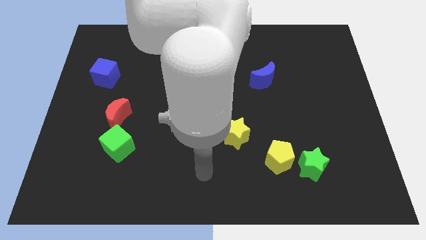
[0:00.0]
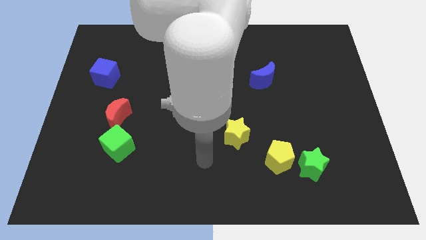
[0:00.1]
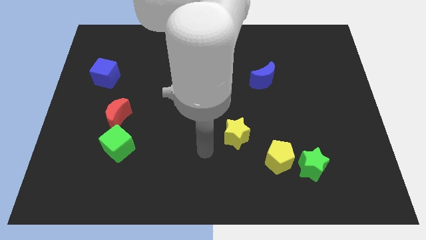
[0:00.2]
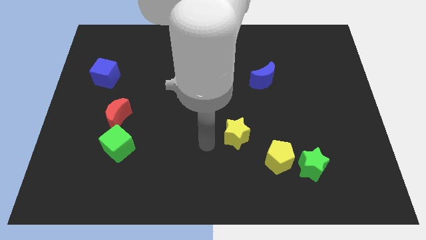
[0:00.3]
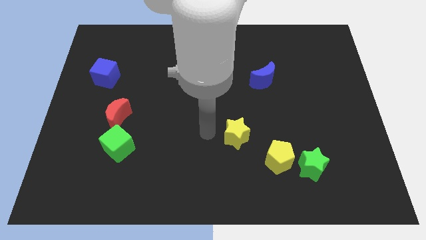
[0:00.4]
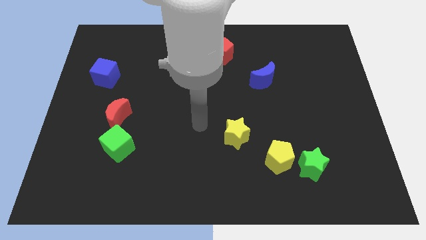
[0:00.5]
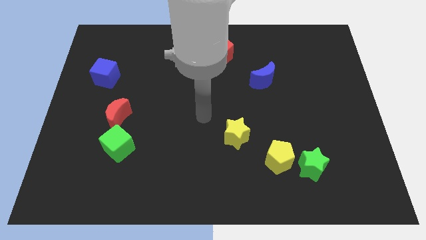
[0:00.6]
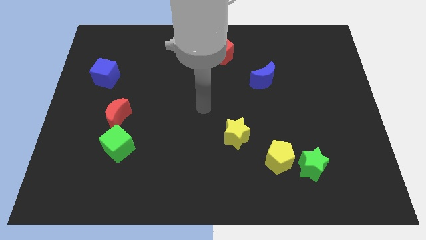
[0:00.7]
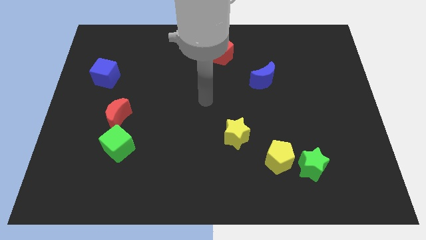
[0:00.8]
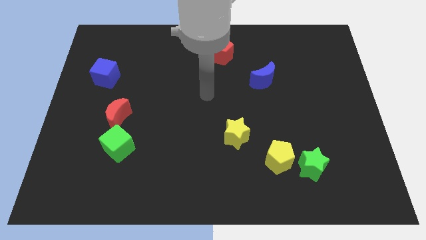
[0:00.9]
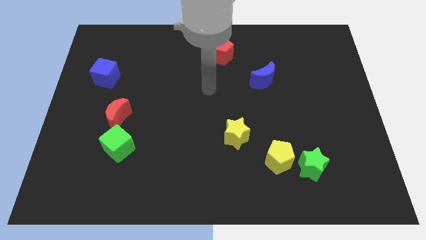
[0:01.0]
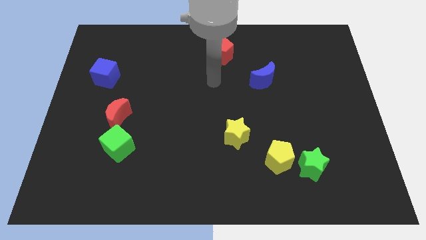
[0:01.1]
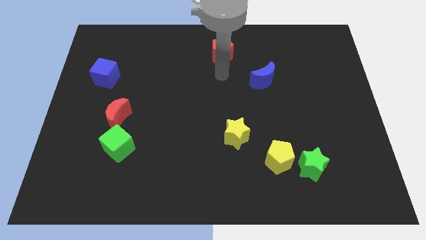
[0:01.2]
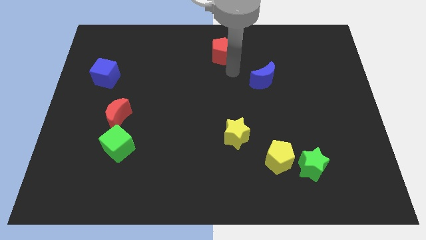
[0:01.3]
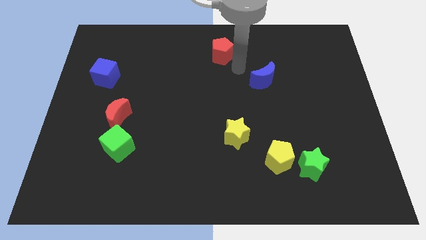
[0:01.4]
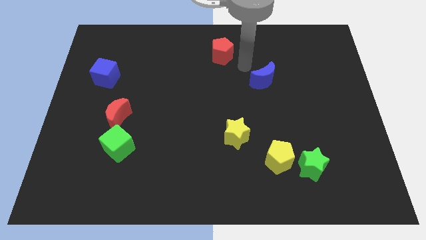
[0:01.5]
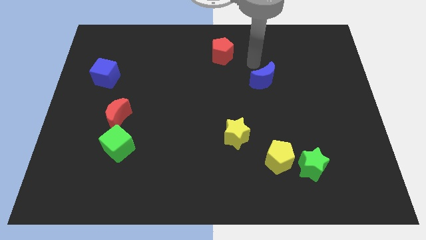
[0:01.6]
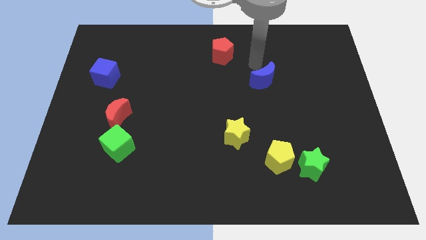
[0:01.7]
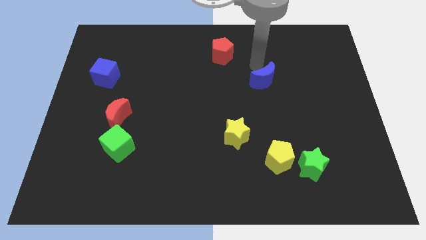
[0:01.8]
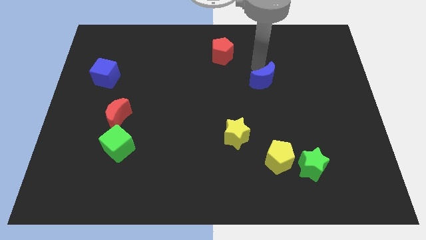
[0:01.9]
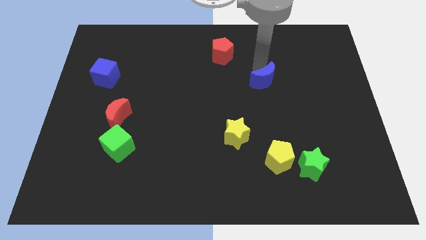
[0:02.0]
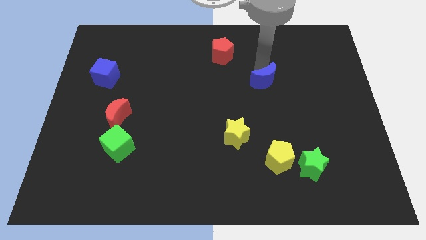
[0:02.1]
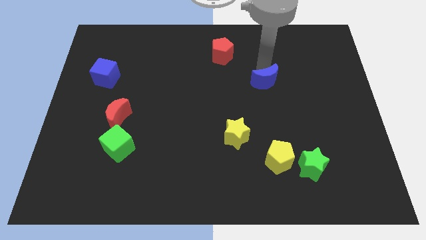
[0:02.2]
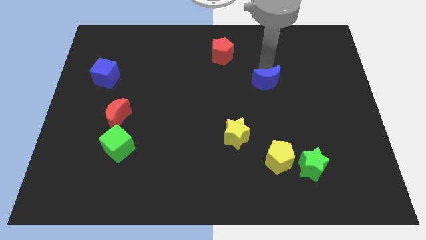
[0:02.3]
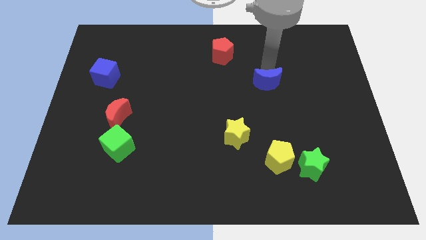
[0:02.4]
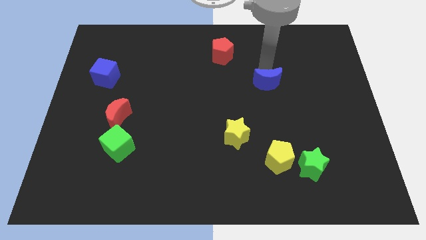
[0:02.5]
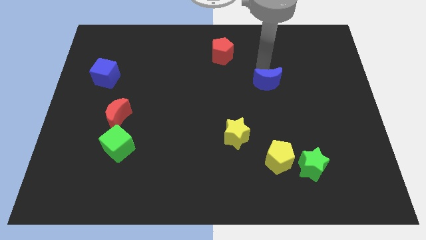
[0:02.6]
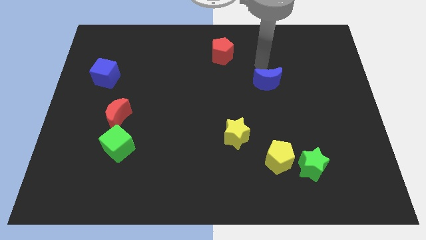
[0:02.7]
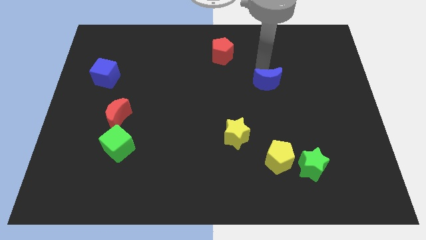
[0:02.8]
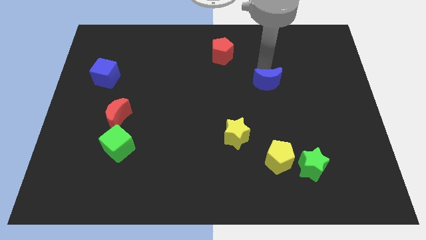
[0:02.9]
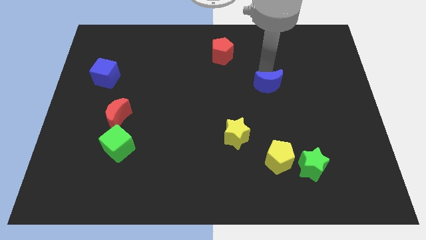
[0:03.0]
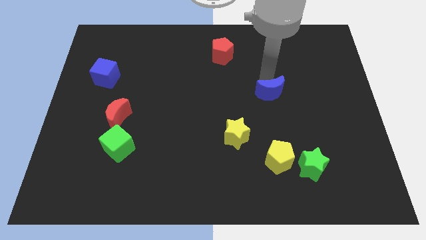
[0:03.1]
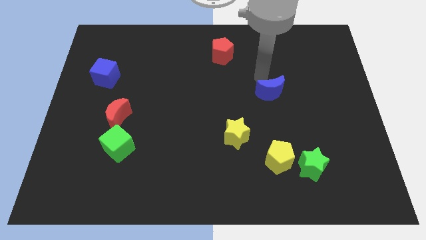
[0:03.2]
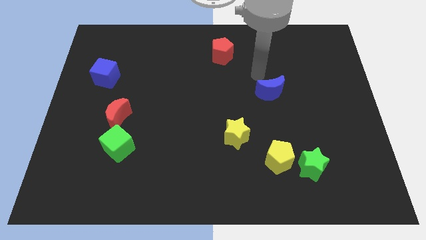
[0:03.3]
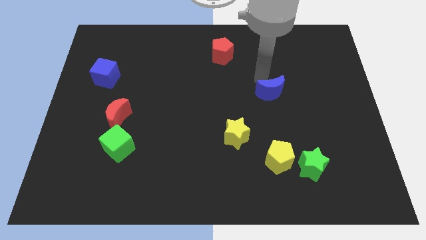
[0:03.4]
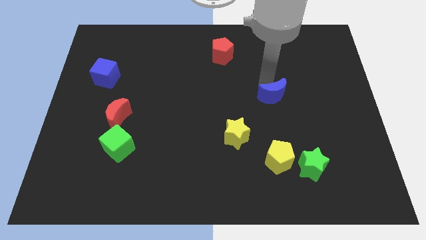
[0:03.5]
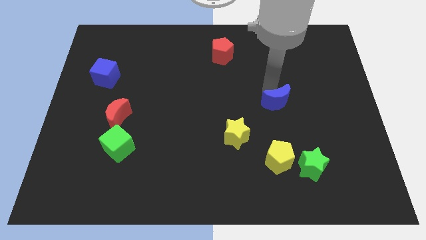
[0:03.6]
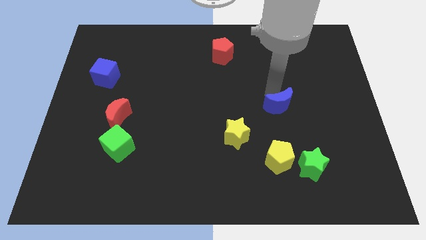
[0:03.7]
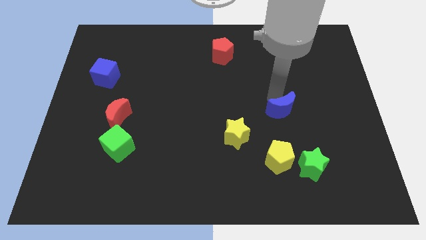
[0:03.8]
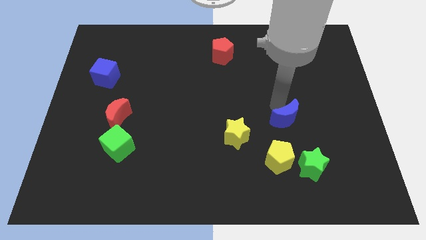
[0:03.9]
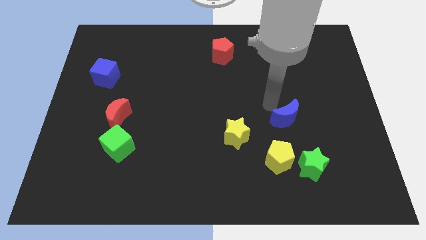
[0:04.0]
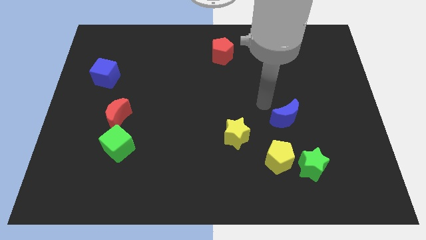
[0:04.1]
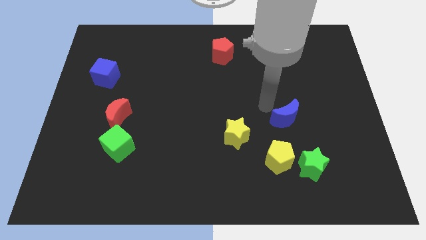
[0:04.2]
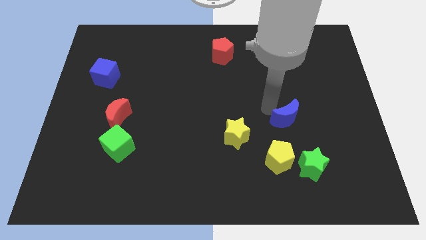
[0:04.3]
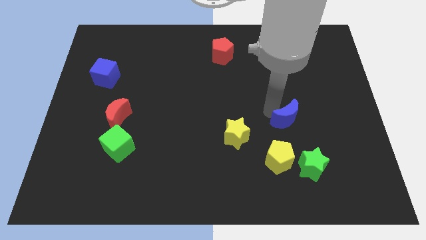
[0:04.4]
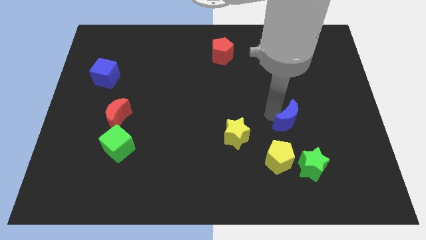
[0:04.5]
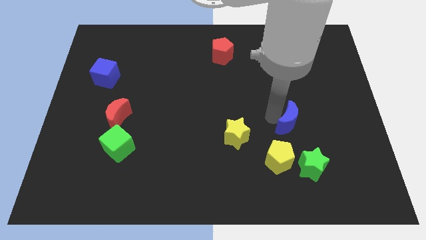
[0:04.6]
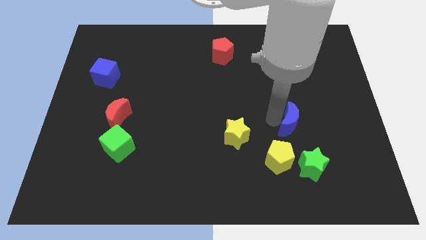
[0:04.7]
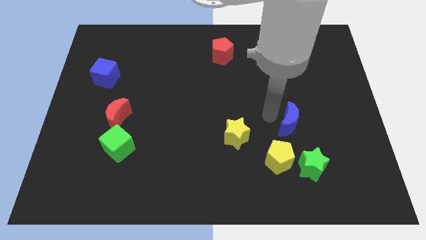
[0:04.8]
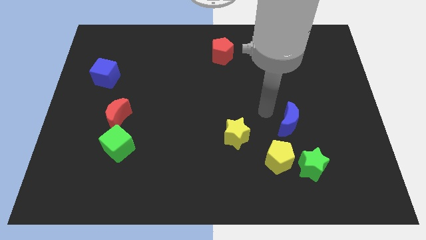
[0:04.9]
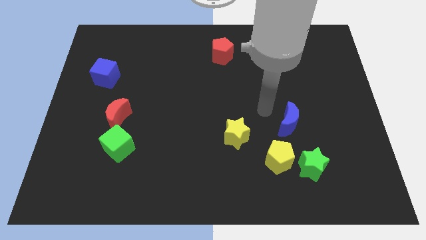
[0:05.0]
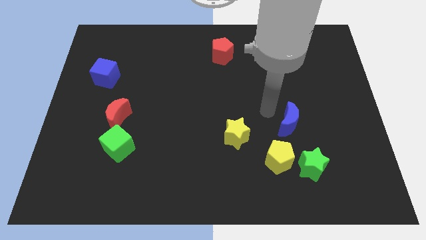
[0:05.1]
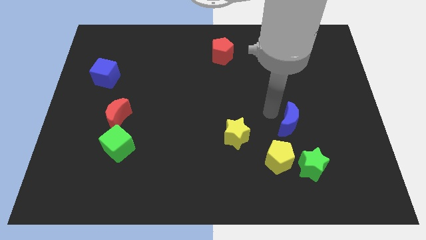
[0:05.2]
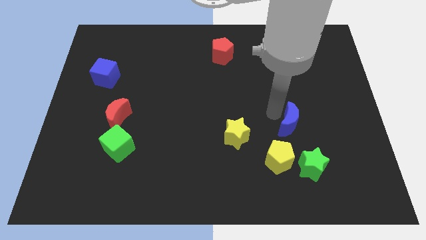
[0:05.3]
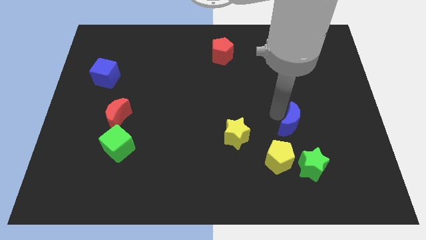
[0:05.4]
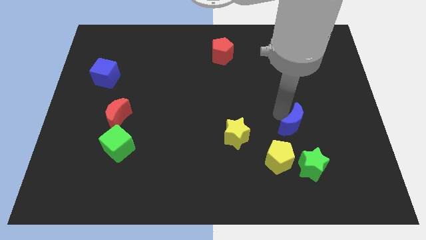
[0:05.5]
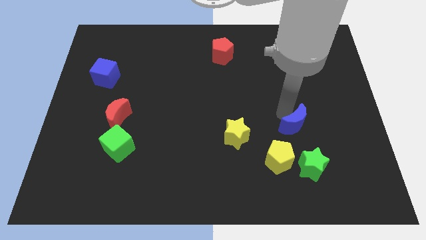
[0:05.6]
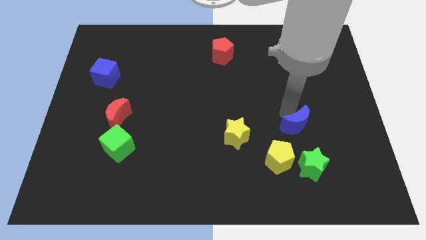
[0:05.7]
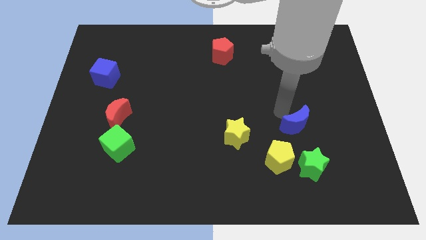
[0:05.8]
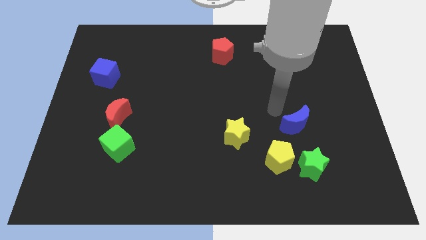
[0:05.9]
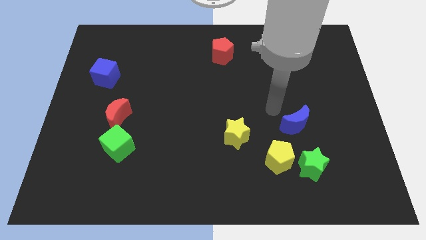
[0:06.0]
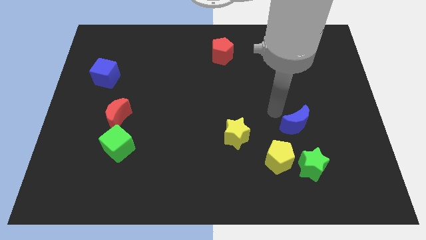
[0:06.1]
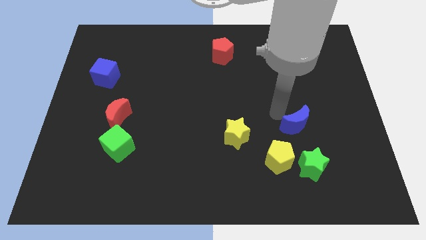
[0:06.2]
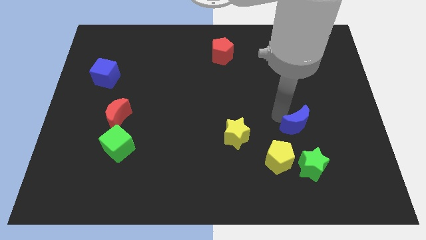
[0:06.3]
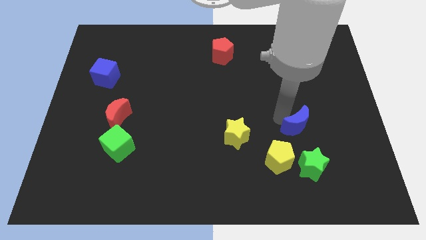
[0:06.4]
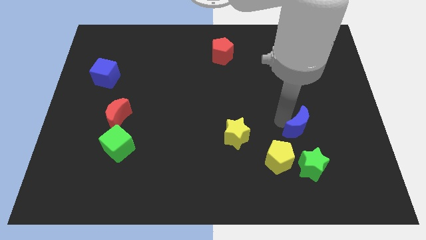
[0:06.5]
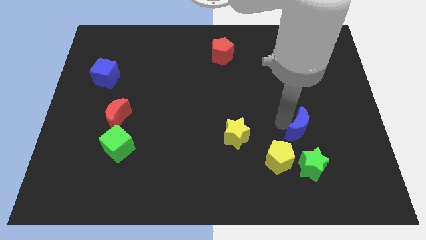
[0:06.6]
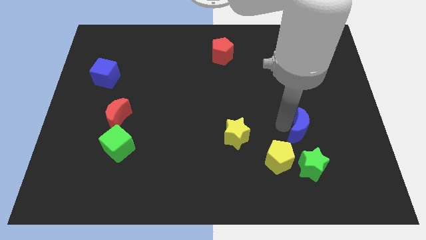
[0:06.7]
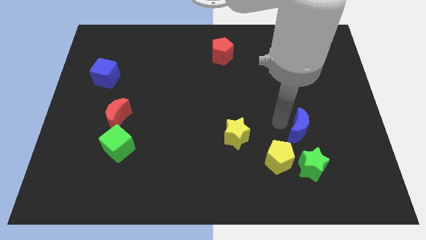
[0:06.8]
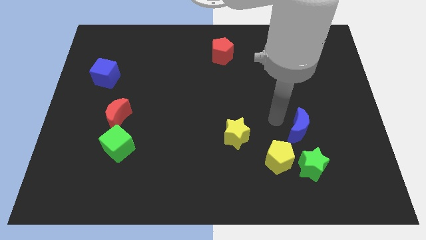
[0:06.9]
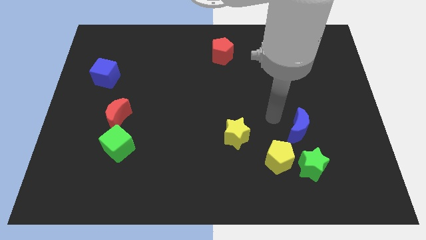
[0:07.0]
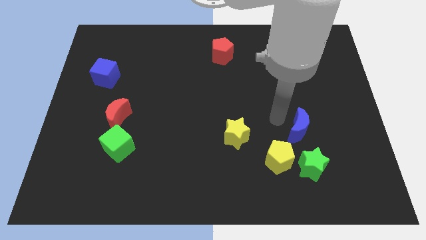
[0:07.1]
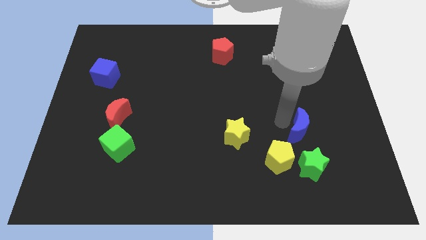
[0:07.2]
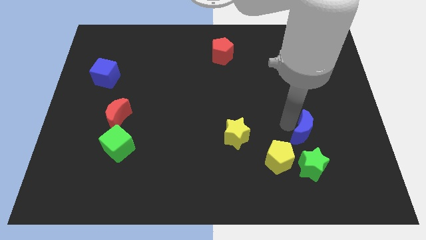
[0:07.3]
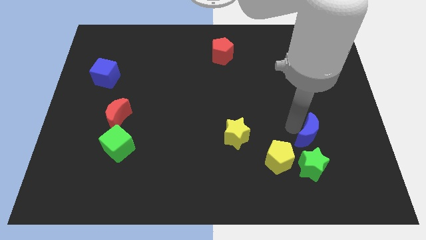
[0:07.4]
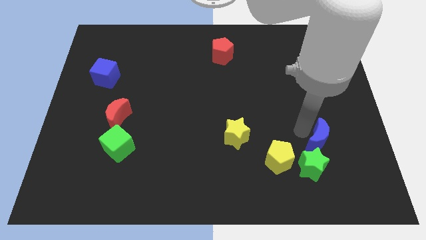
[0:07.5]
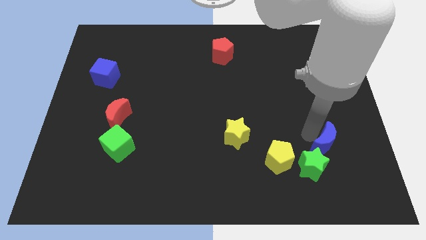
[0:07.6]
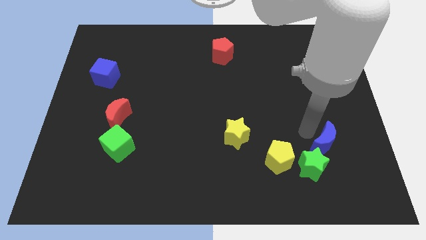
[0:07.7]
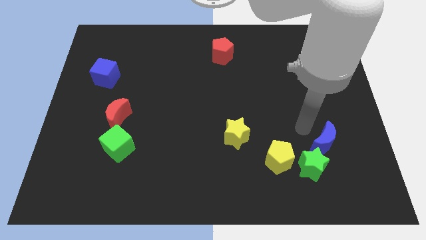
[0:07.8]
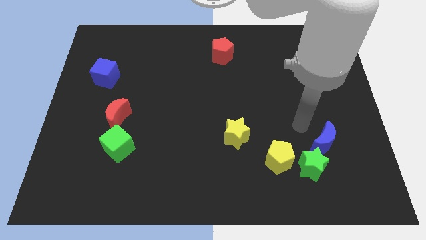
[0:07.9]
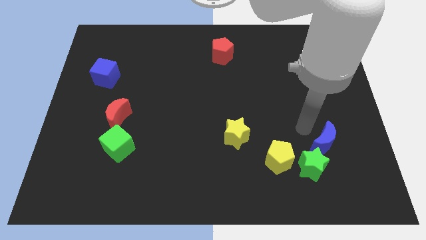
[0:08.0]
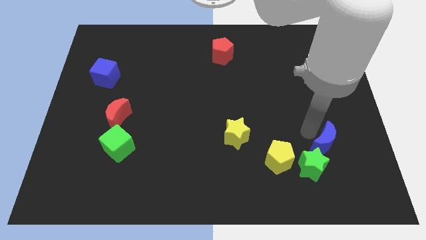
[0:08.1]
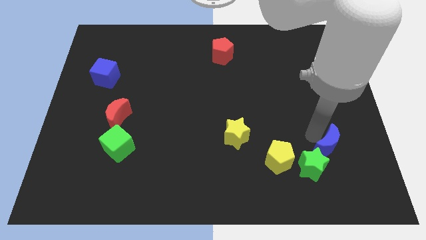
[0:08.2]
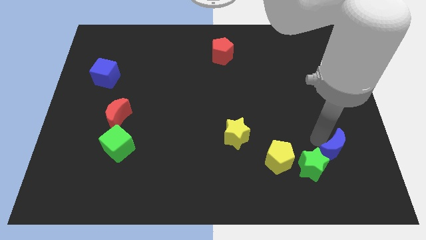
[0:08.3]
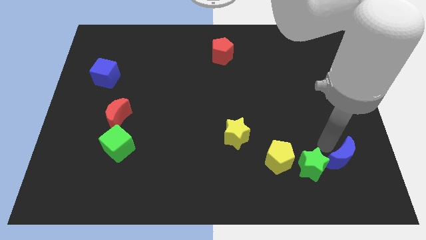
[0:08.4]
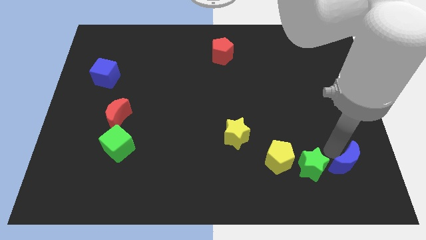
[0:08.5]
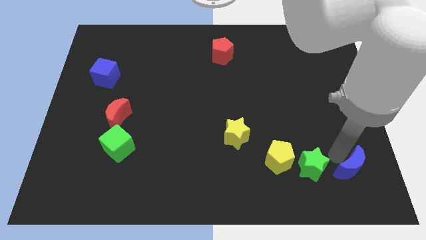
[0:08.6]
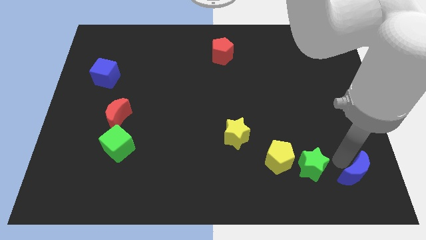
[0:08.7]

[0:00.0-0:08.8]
move the blue moon to the bottom right
